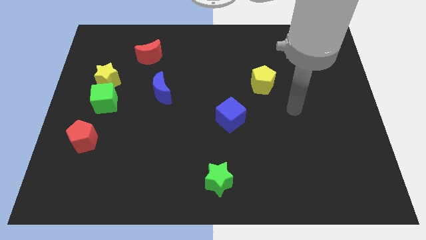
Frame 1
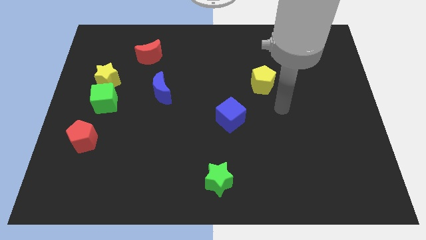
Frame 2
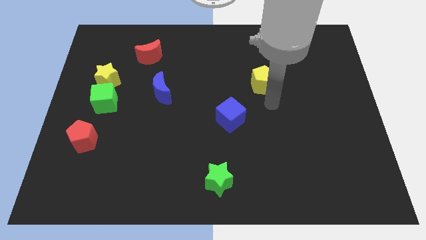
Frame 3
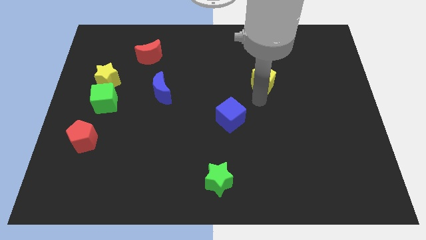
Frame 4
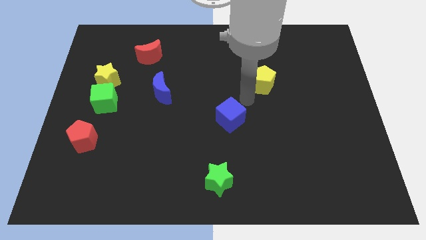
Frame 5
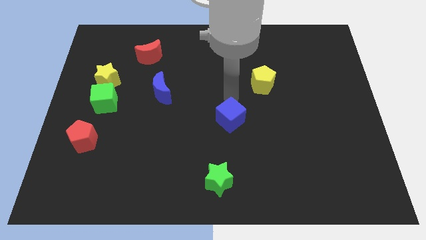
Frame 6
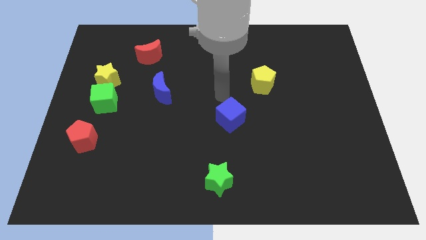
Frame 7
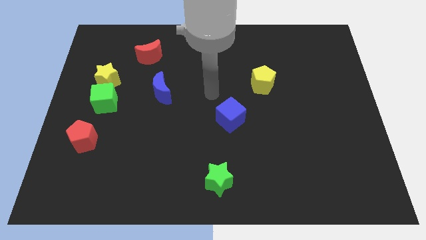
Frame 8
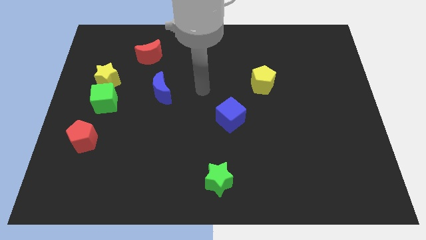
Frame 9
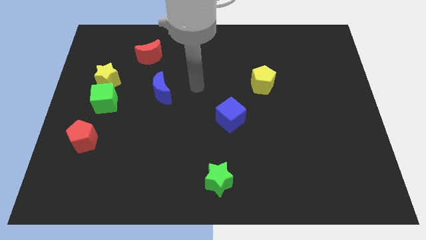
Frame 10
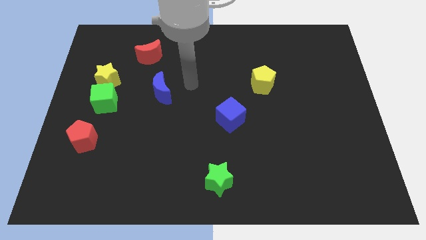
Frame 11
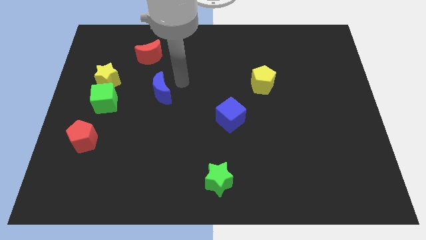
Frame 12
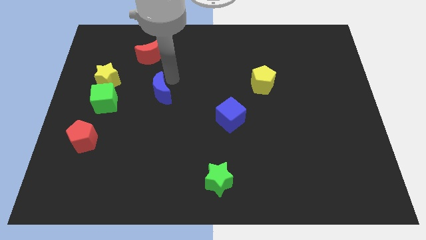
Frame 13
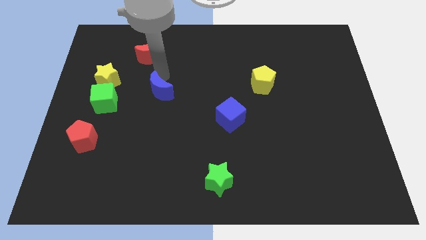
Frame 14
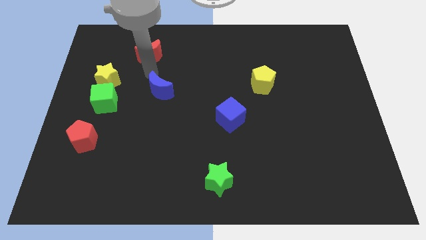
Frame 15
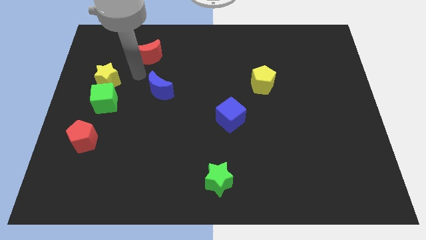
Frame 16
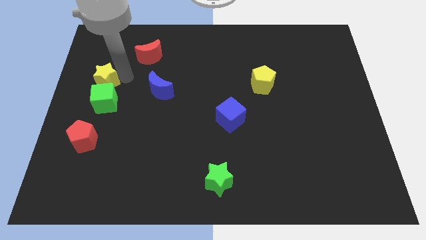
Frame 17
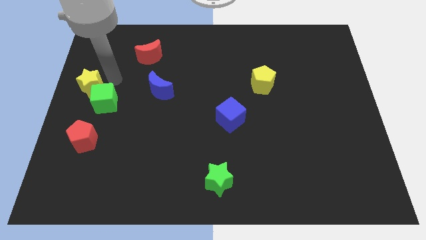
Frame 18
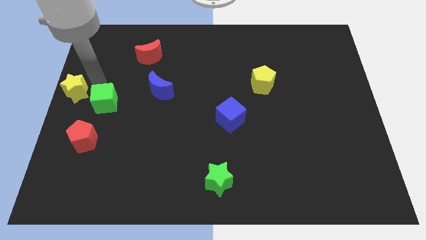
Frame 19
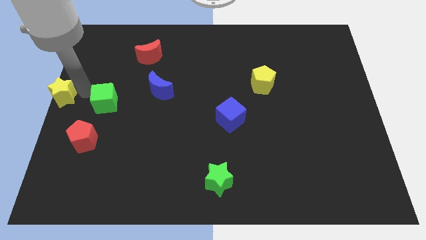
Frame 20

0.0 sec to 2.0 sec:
move the green cube away from the yellow star

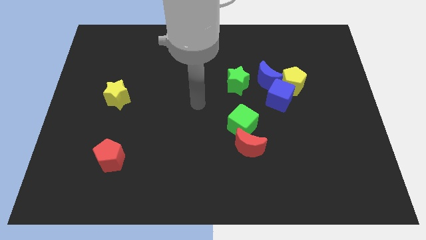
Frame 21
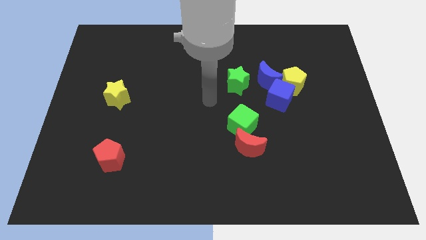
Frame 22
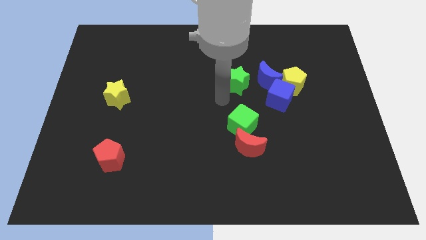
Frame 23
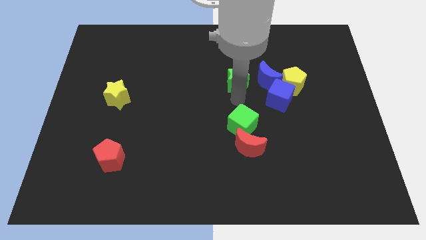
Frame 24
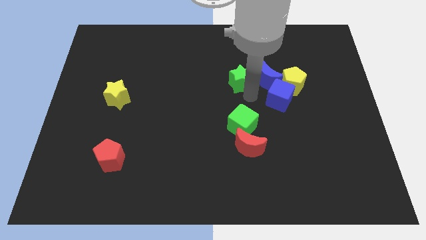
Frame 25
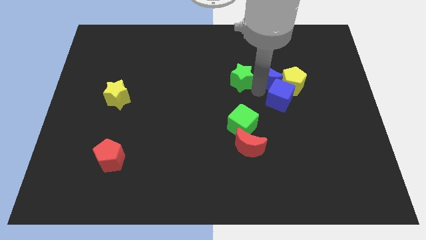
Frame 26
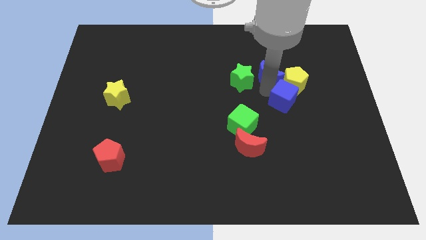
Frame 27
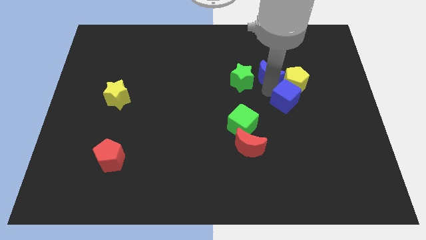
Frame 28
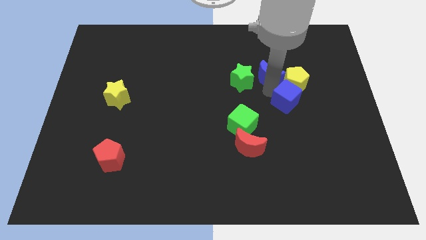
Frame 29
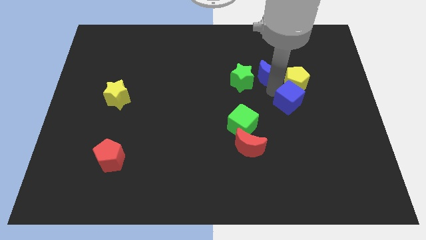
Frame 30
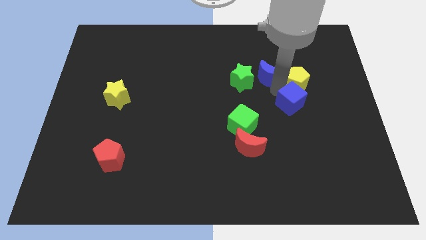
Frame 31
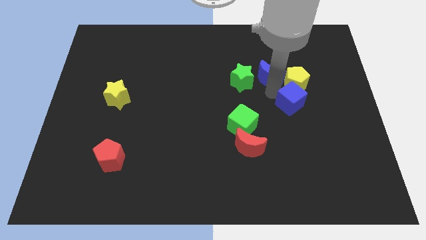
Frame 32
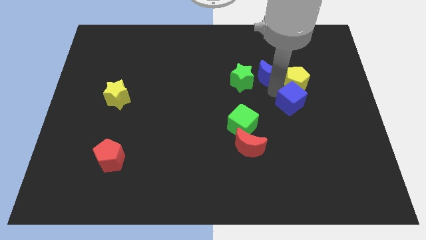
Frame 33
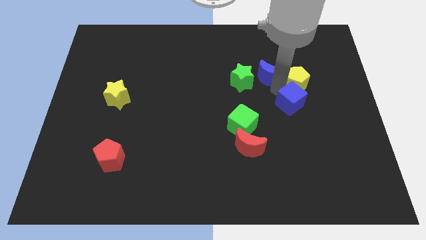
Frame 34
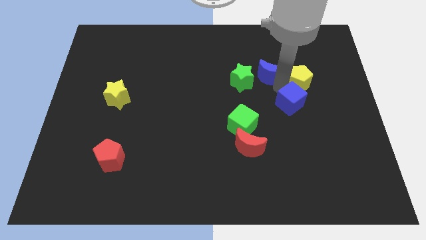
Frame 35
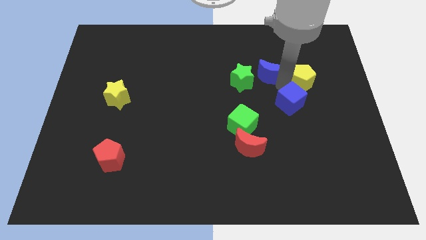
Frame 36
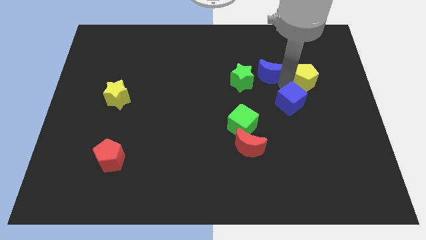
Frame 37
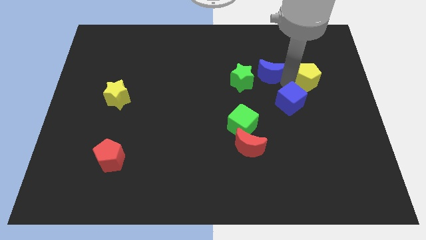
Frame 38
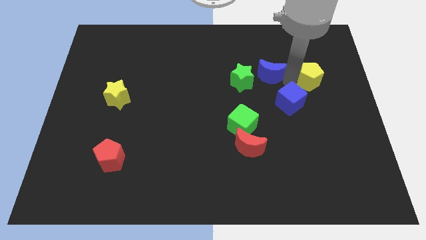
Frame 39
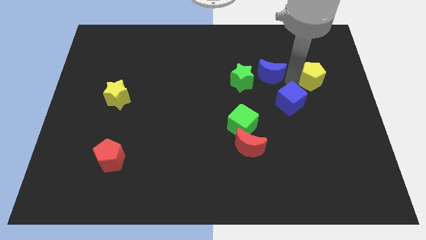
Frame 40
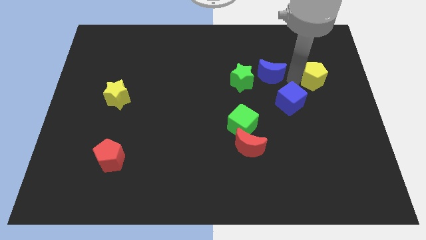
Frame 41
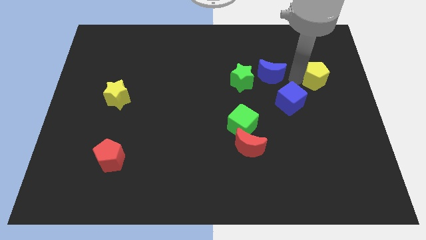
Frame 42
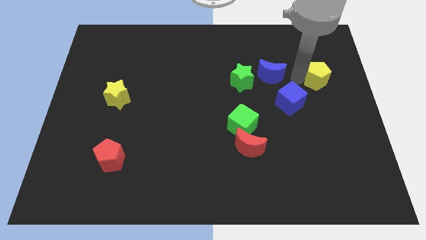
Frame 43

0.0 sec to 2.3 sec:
separate the yellow pentagon from the blue cube and blue moon

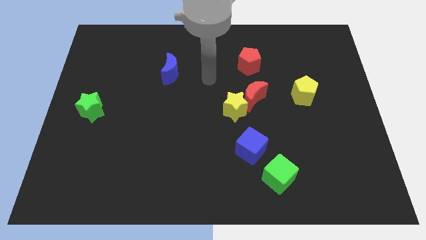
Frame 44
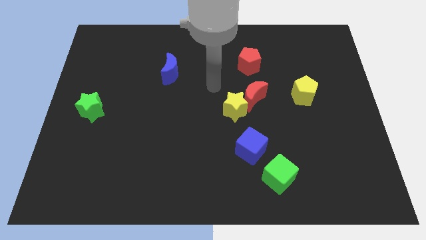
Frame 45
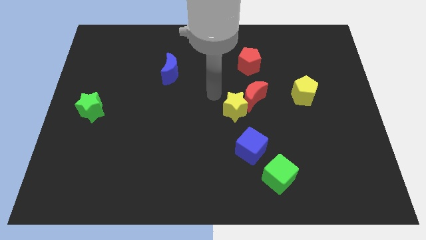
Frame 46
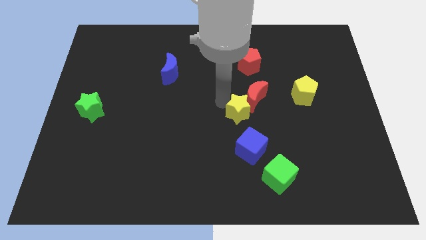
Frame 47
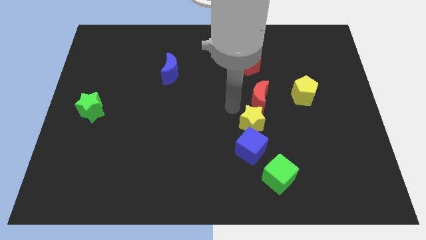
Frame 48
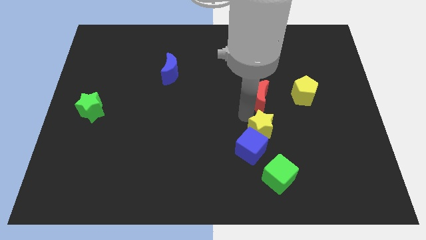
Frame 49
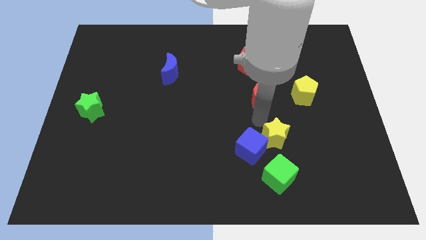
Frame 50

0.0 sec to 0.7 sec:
move the red moon away from the yellow star

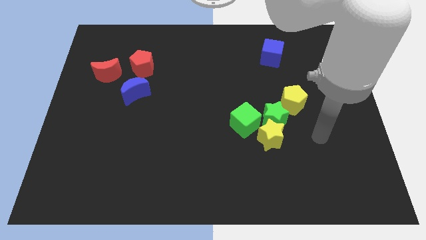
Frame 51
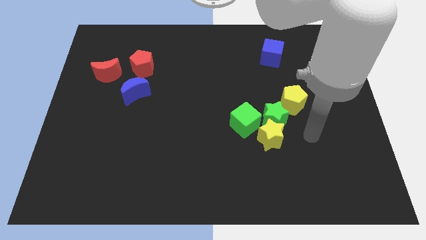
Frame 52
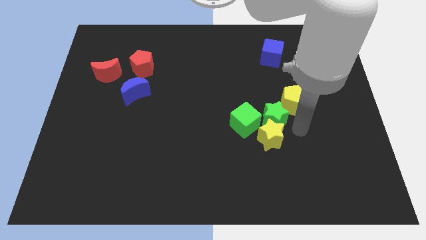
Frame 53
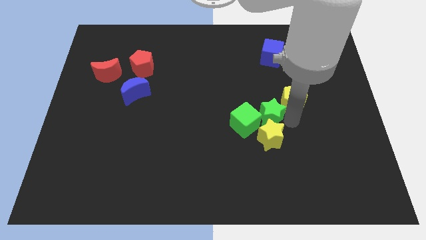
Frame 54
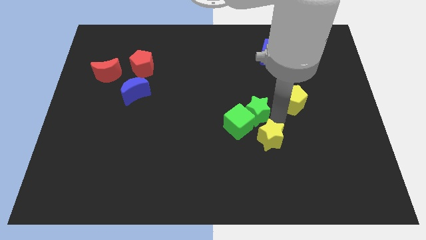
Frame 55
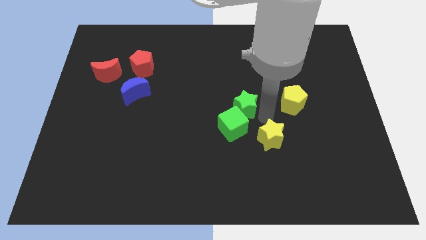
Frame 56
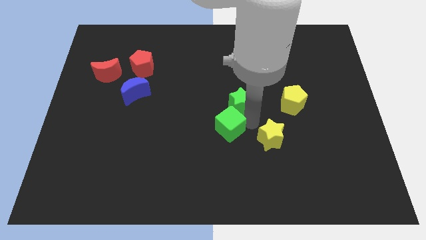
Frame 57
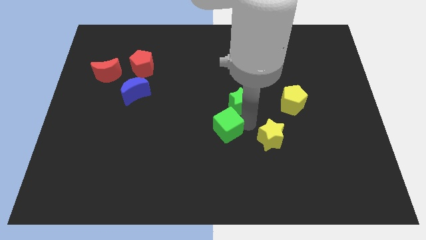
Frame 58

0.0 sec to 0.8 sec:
move the yellow star away from the green star and green cube

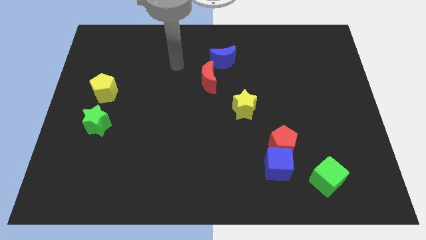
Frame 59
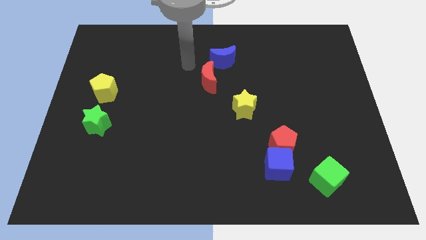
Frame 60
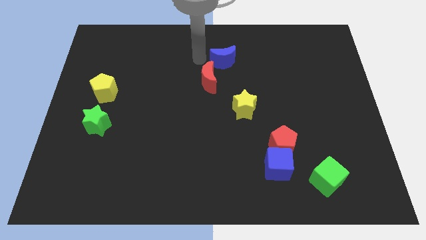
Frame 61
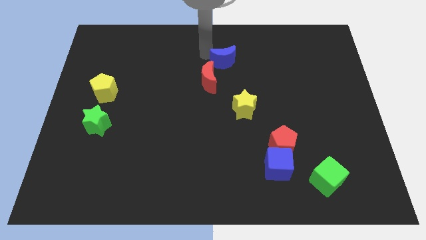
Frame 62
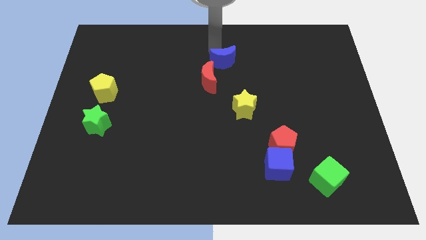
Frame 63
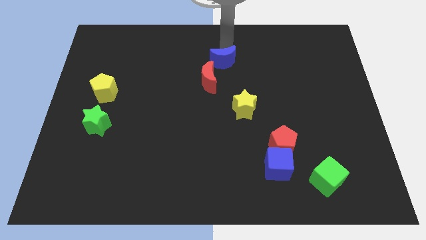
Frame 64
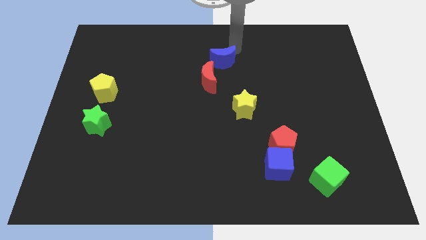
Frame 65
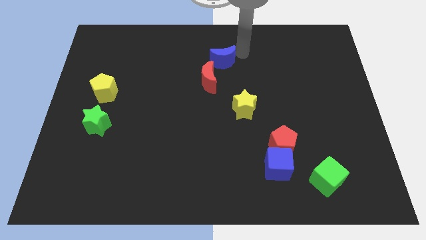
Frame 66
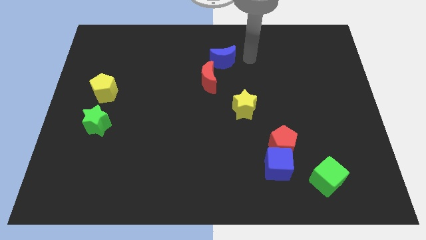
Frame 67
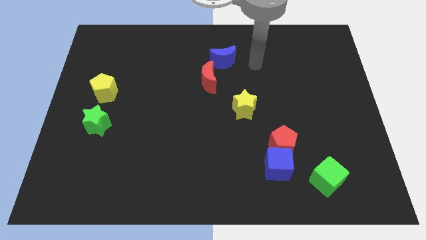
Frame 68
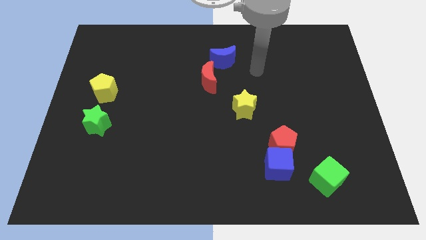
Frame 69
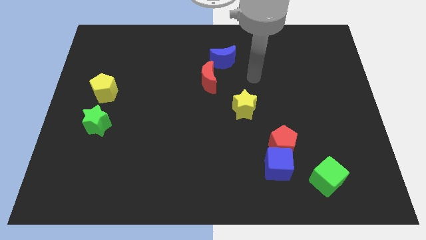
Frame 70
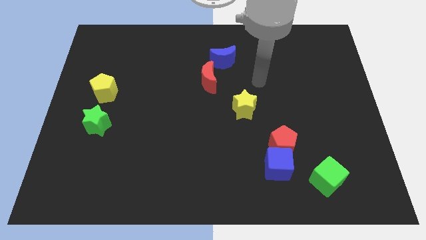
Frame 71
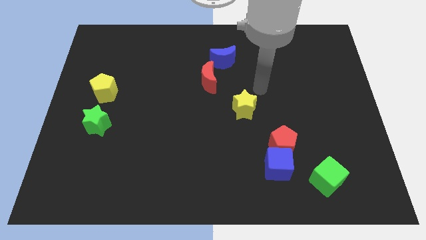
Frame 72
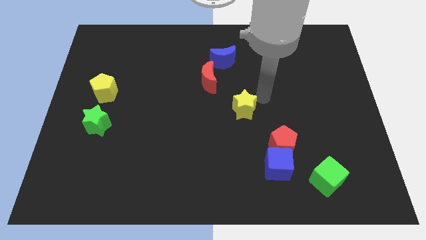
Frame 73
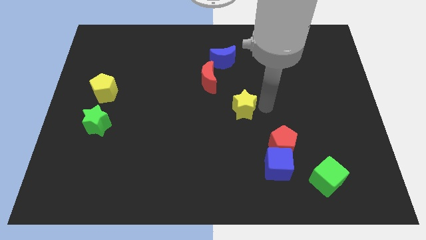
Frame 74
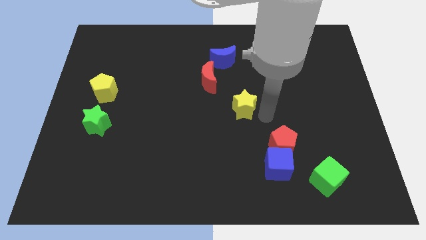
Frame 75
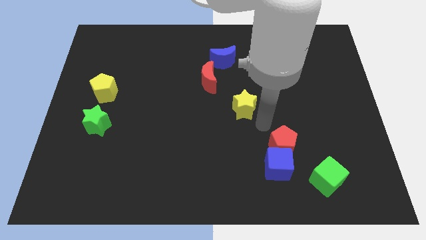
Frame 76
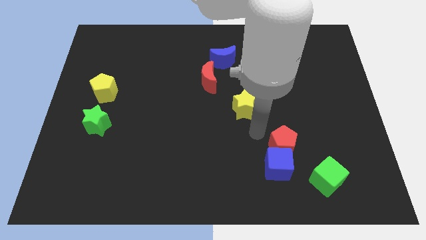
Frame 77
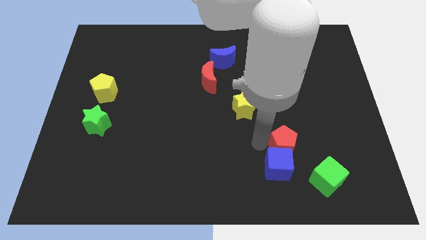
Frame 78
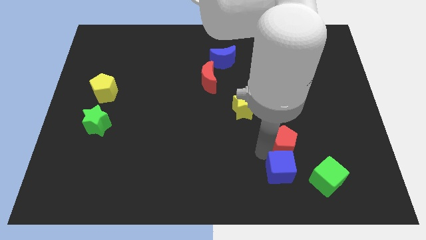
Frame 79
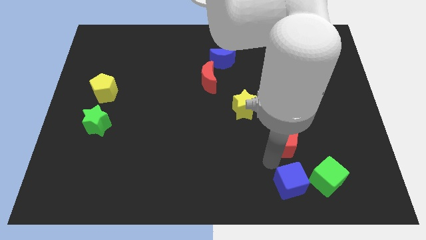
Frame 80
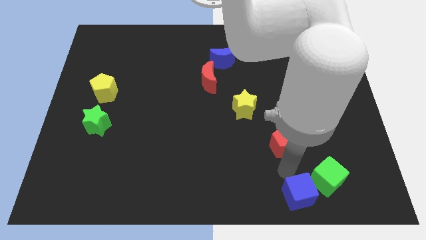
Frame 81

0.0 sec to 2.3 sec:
move the red pentagon away from the blue cube

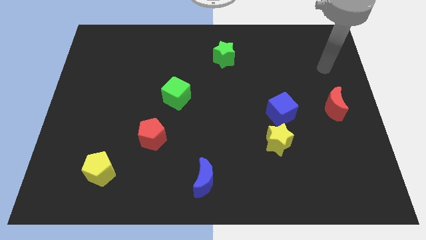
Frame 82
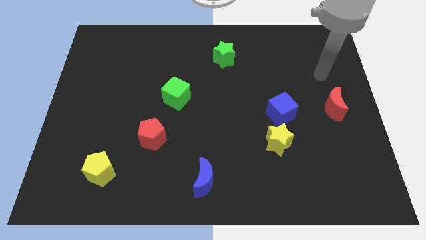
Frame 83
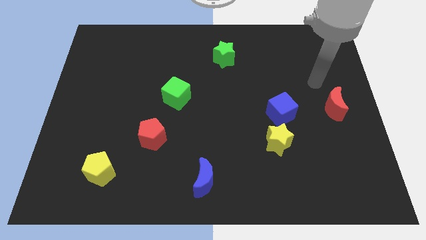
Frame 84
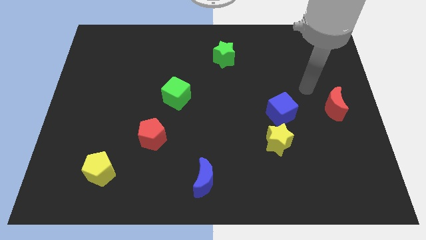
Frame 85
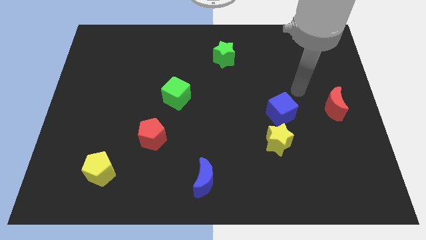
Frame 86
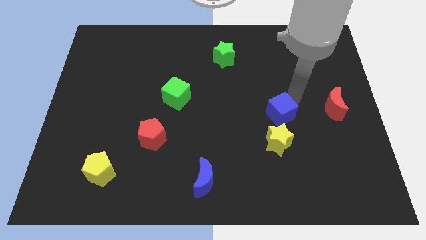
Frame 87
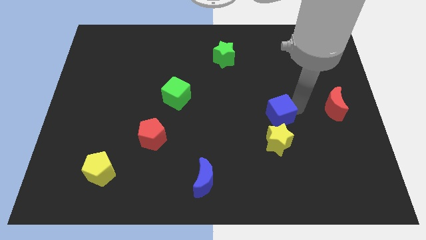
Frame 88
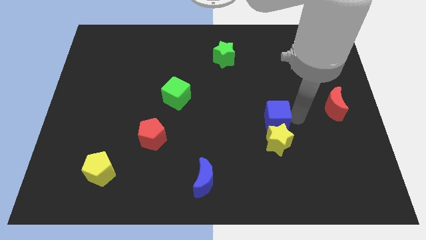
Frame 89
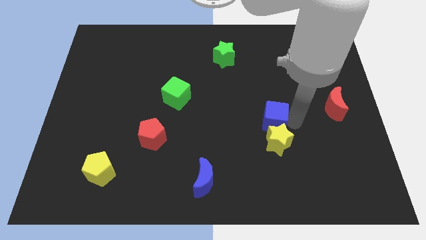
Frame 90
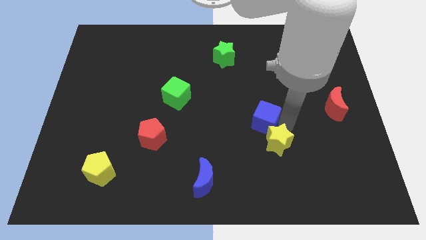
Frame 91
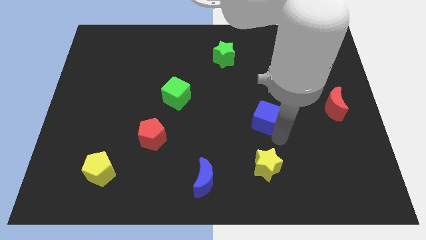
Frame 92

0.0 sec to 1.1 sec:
move the blue cube away from the yellow star

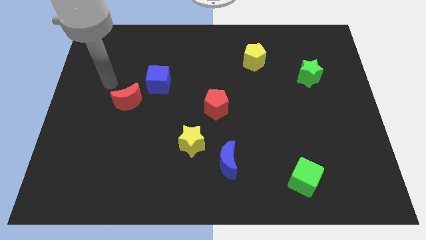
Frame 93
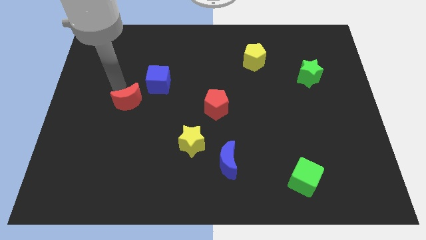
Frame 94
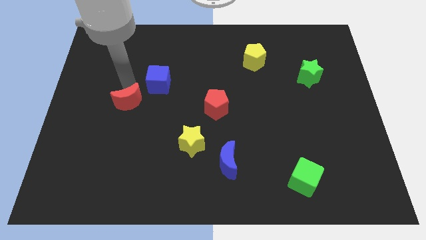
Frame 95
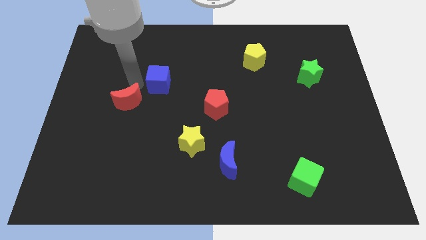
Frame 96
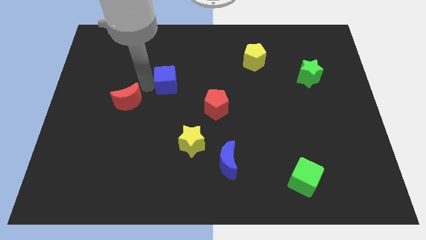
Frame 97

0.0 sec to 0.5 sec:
pull the red moon apart from the blue cube
